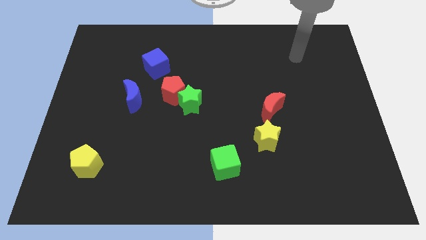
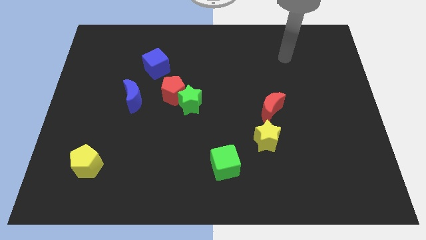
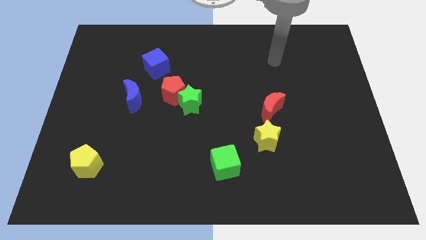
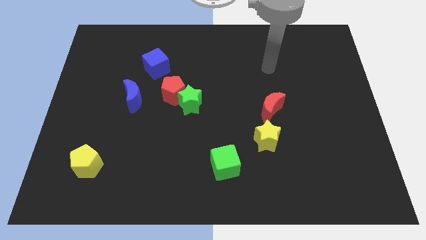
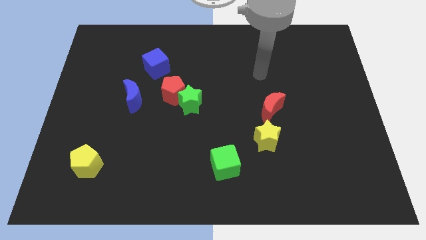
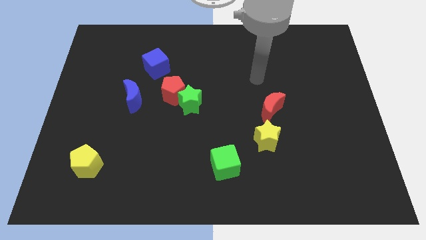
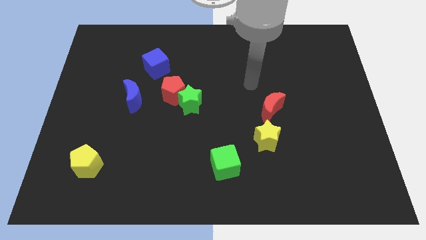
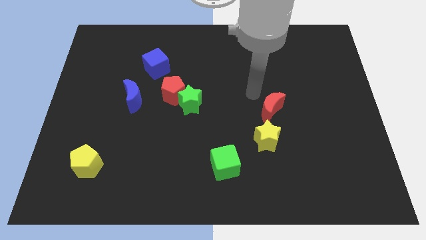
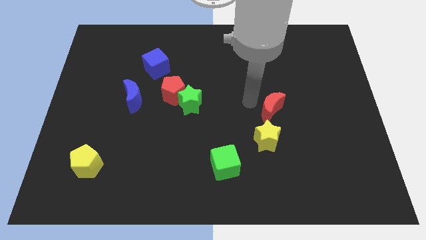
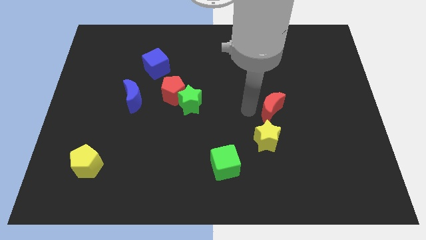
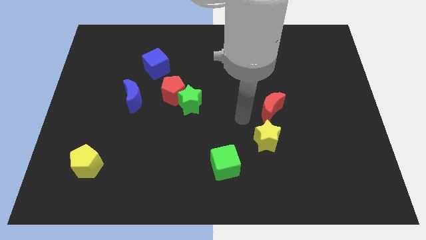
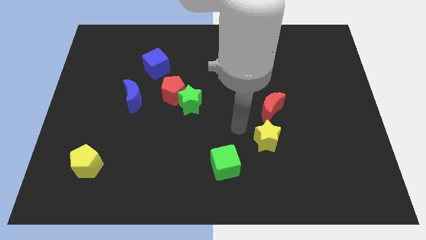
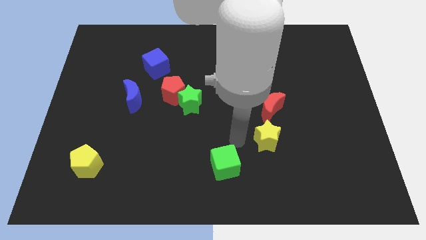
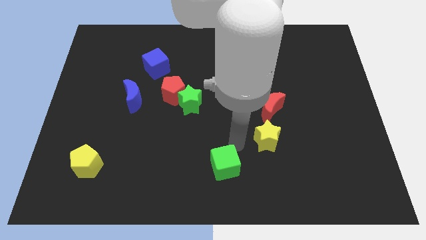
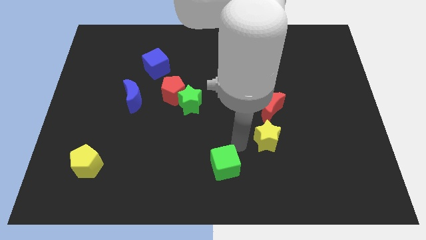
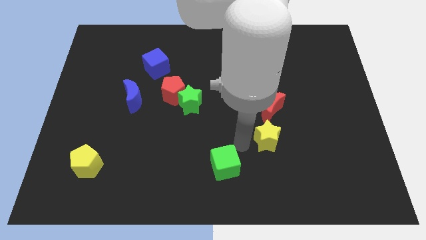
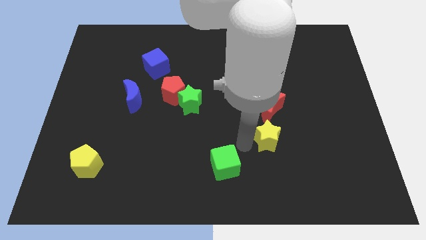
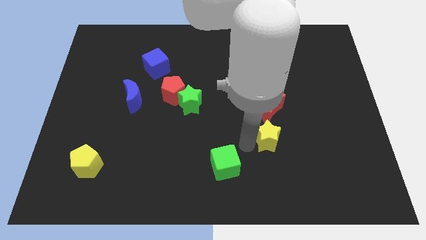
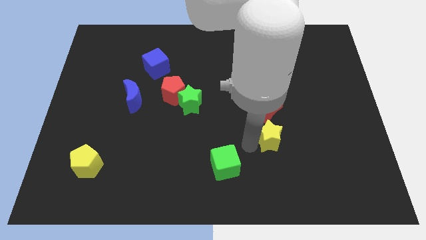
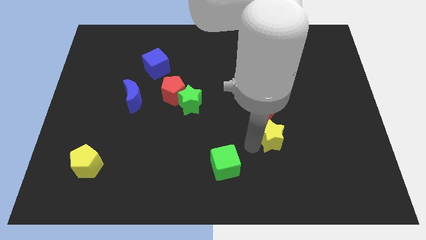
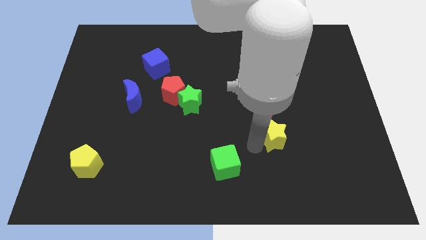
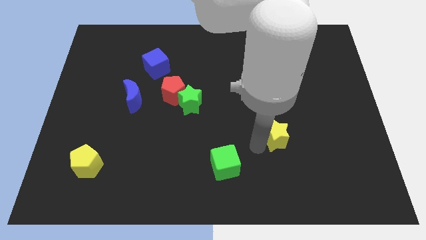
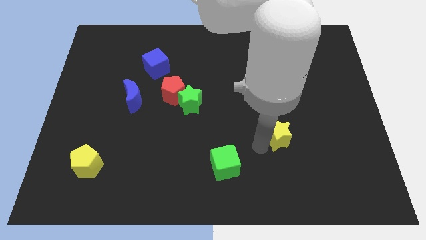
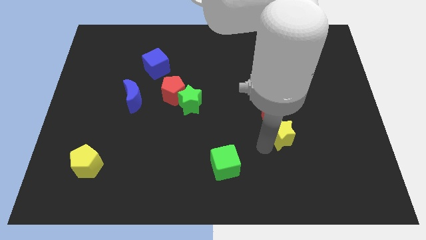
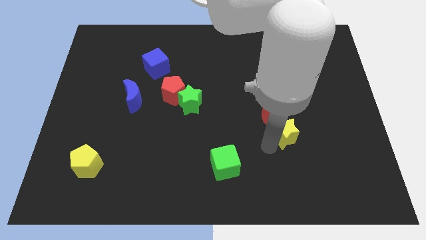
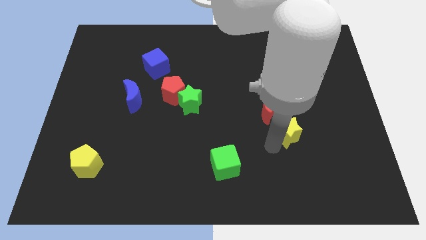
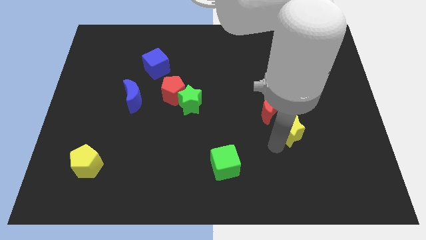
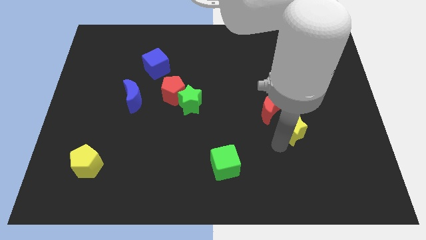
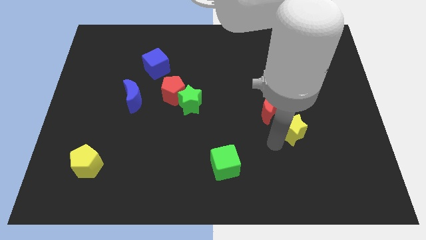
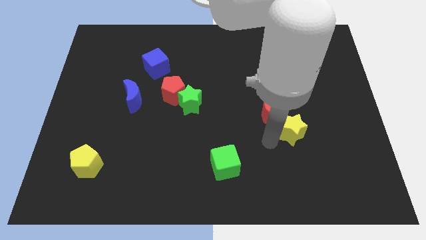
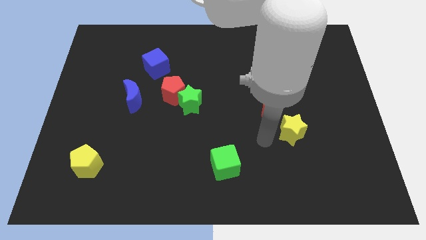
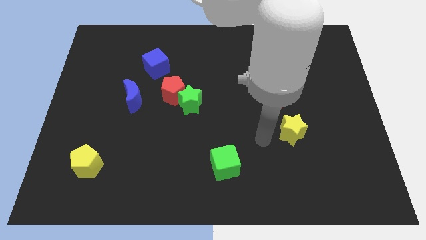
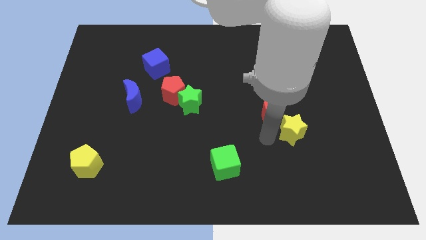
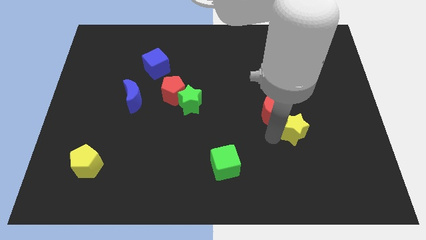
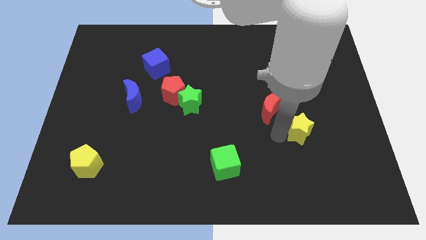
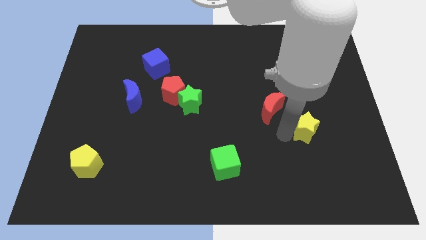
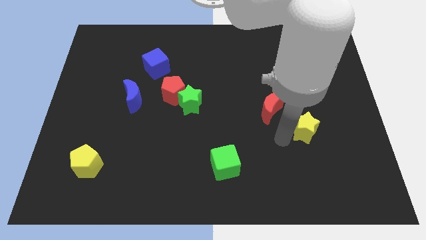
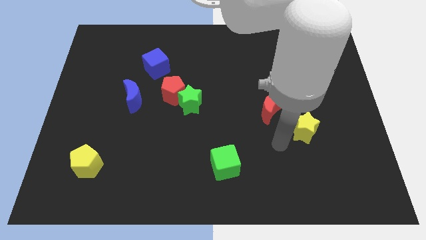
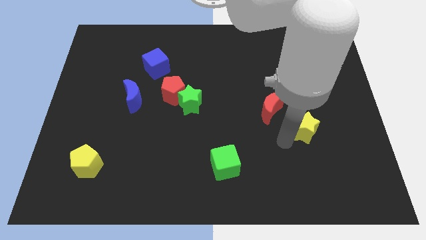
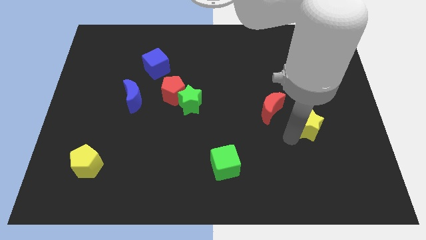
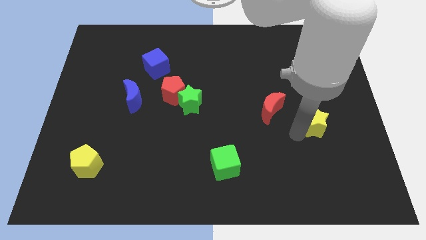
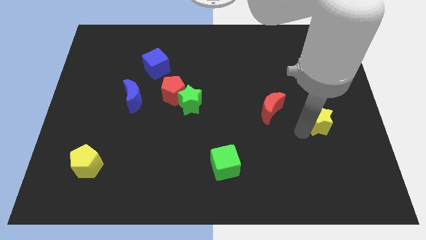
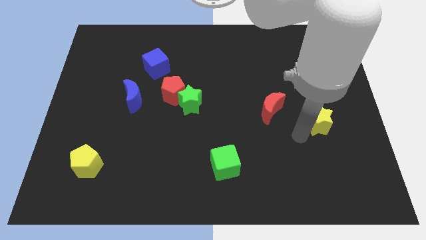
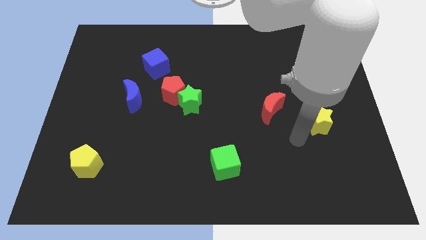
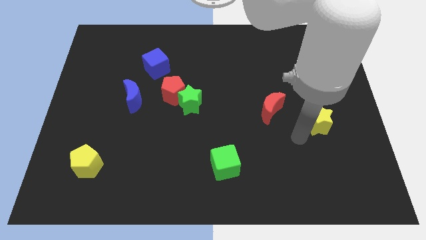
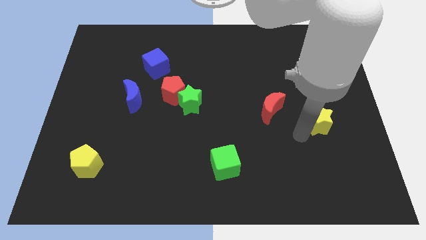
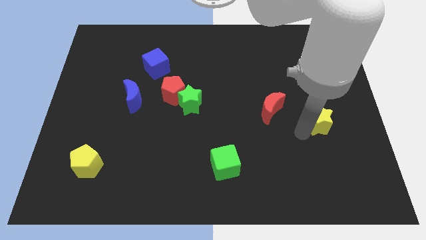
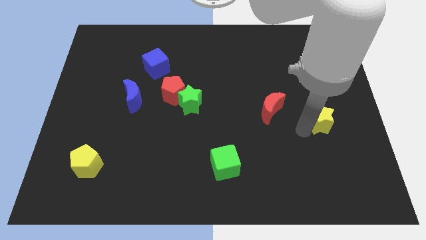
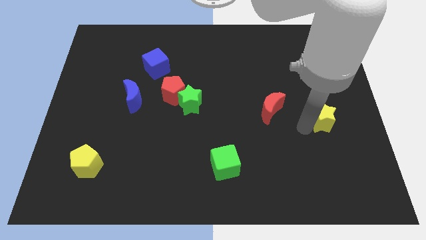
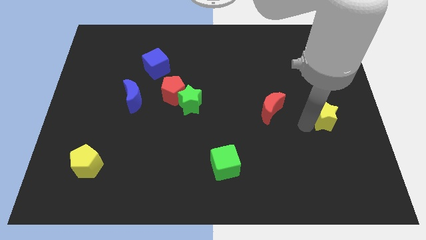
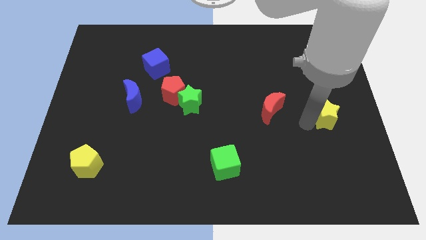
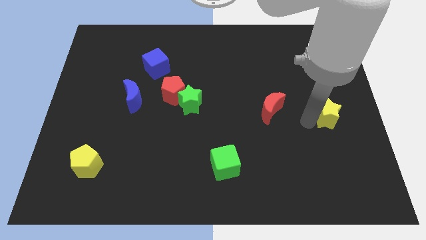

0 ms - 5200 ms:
push the yellow star to the right side

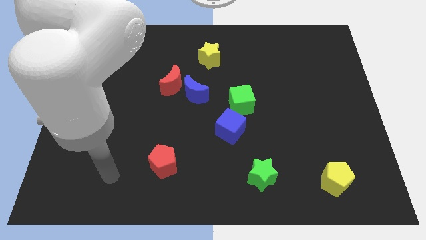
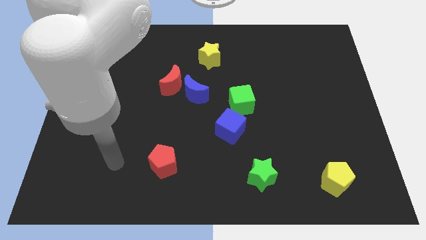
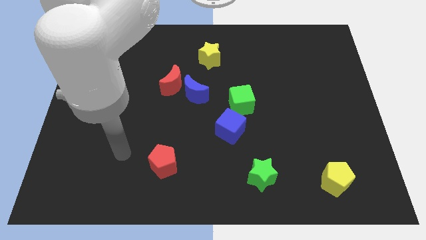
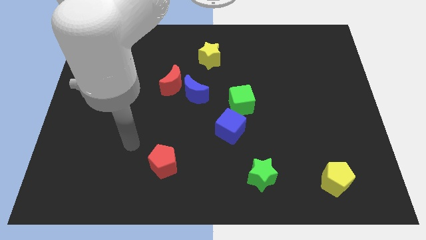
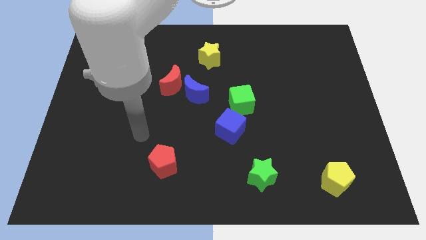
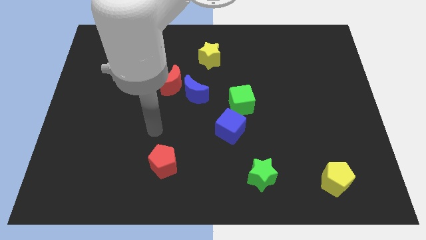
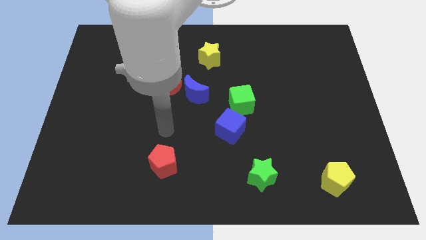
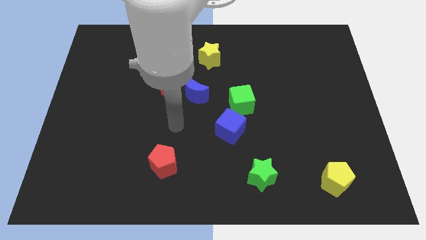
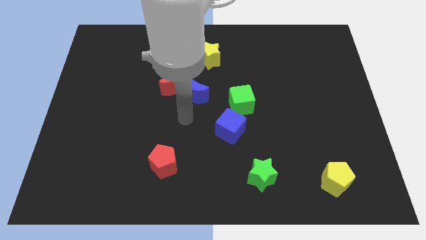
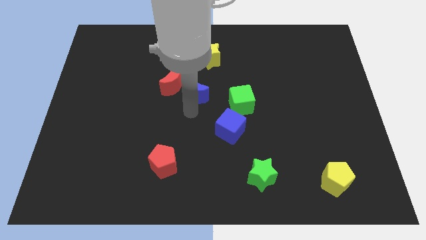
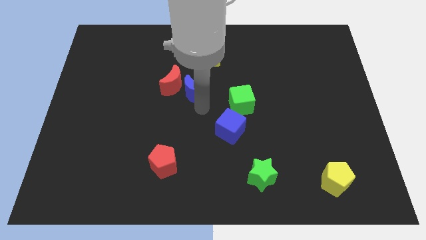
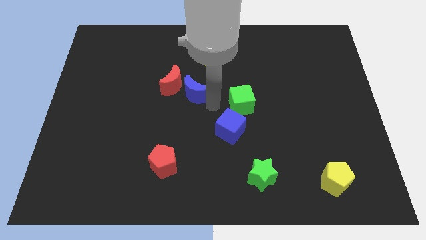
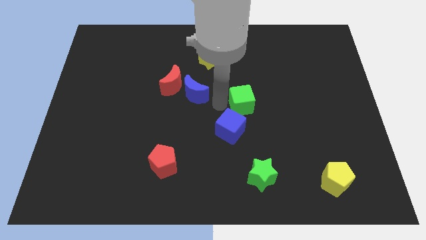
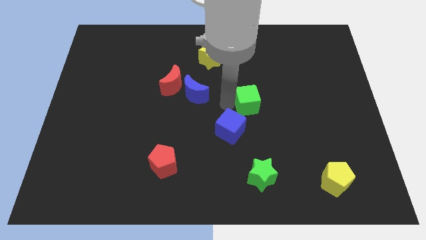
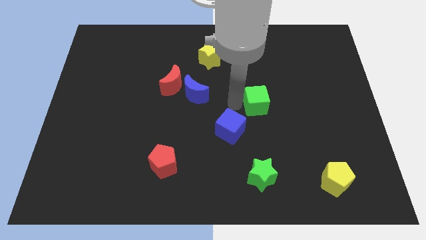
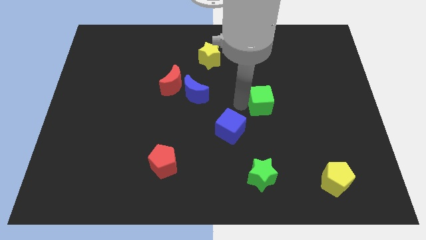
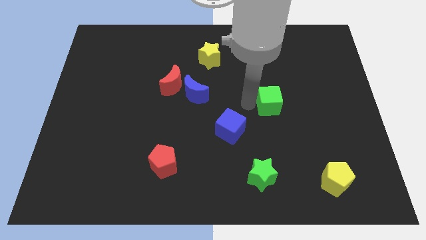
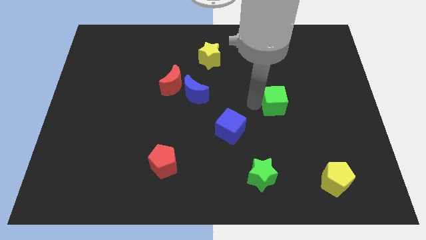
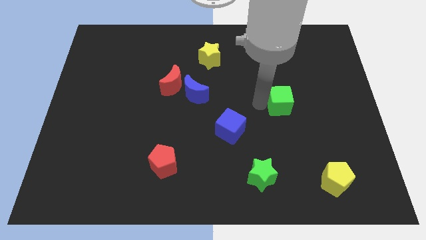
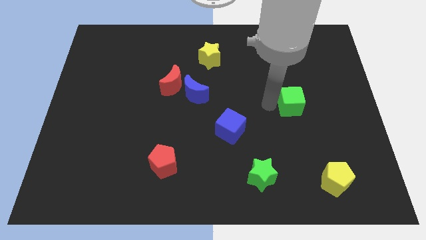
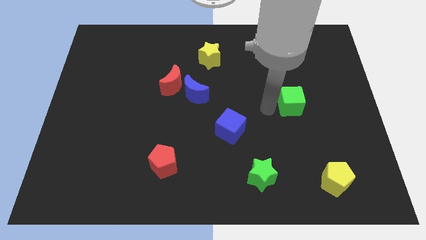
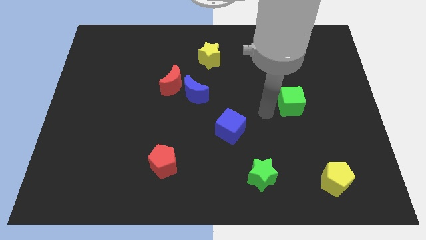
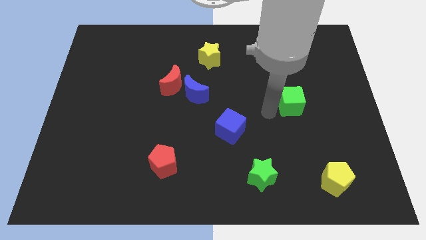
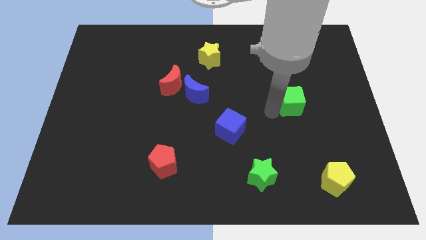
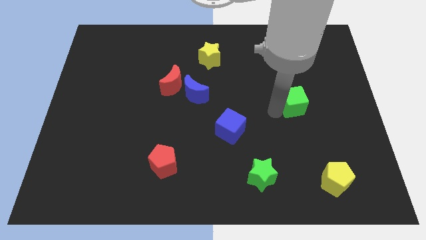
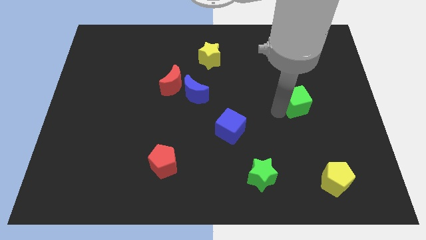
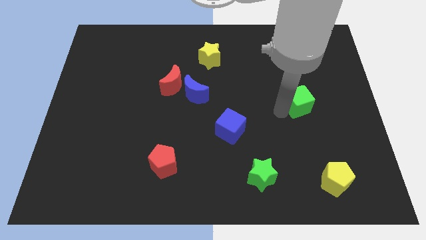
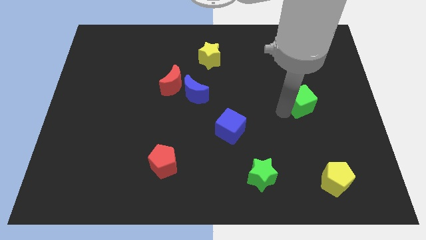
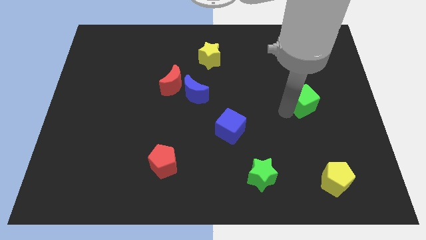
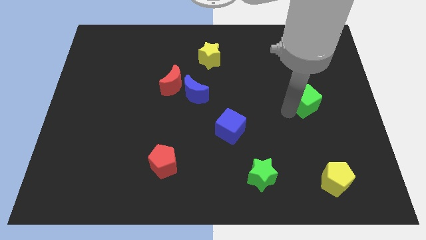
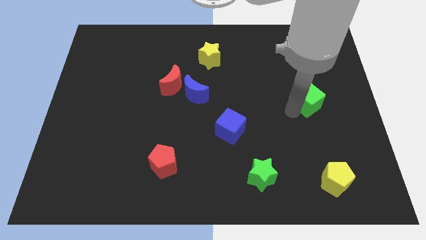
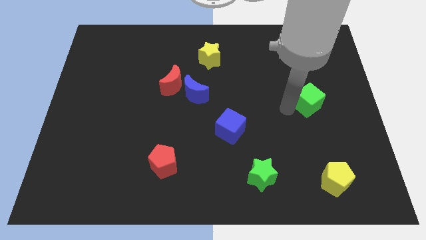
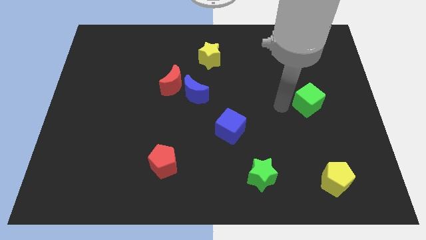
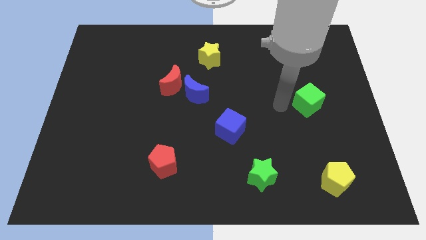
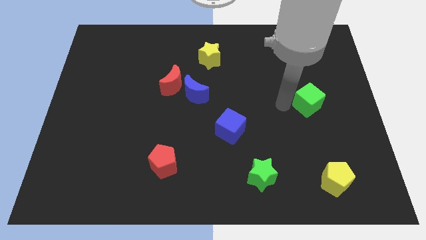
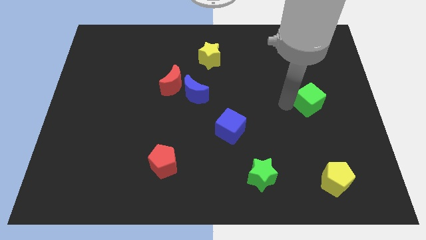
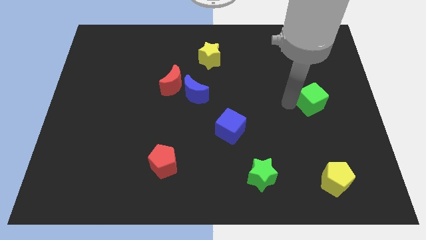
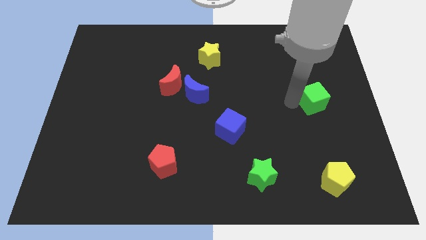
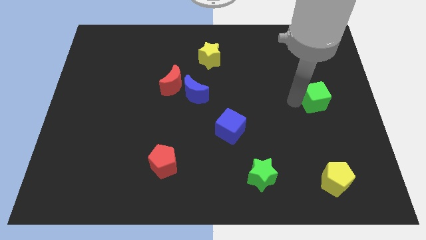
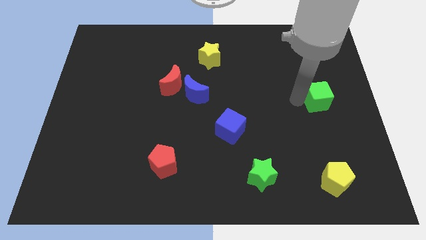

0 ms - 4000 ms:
push the green cube to the right side
